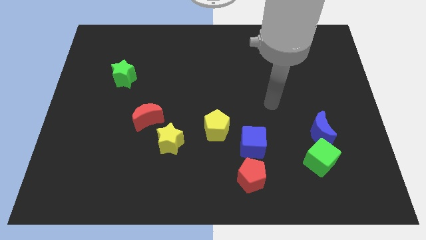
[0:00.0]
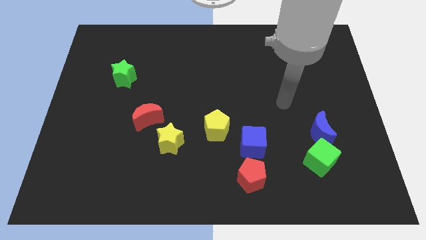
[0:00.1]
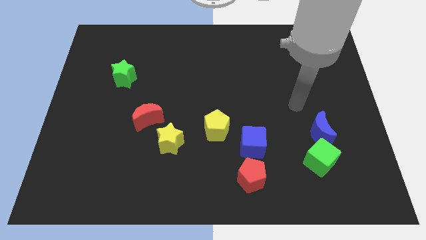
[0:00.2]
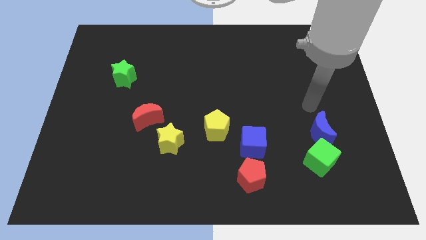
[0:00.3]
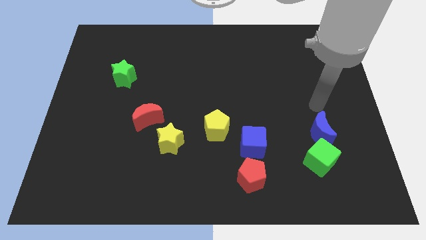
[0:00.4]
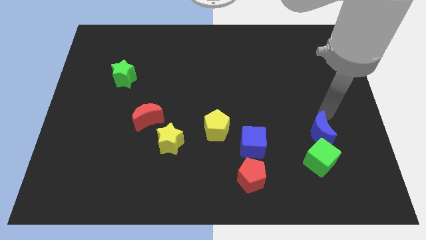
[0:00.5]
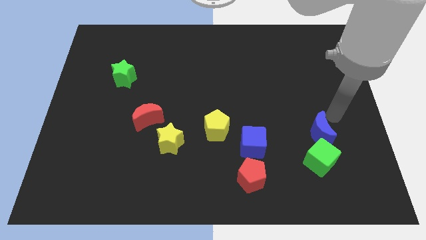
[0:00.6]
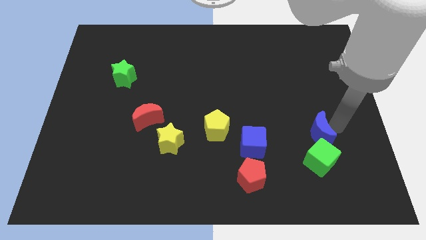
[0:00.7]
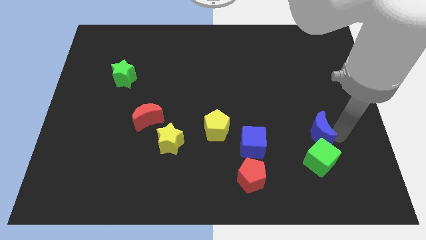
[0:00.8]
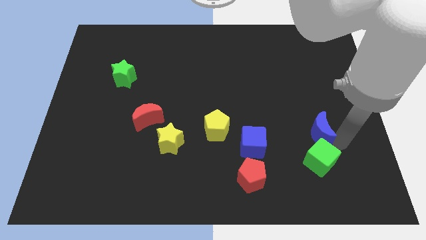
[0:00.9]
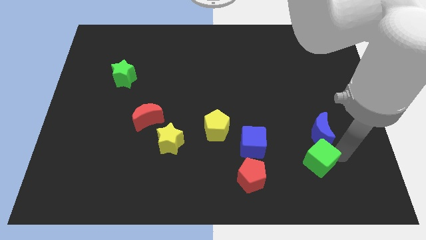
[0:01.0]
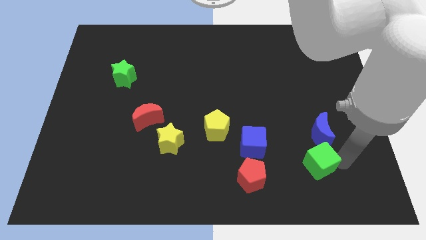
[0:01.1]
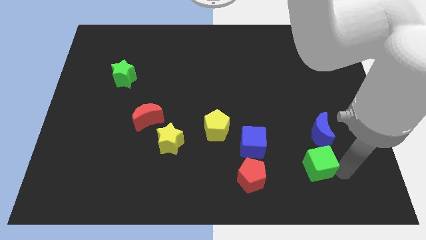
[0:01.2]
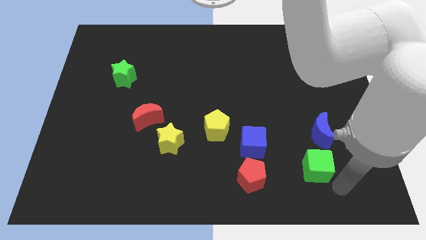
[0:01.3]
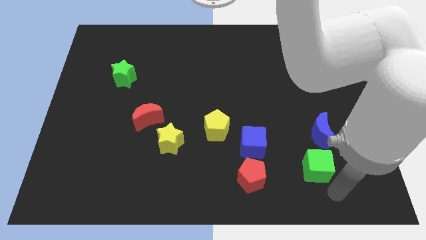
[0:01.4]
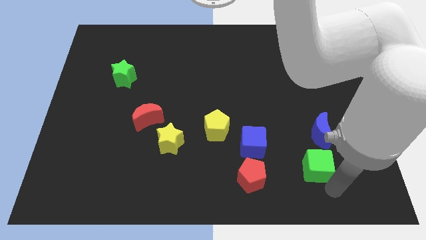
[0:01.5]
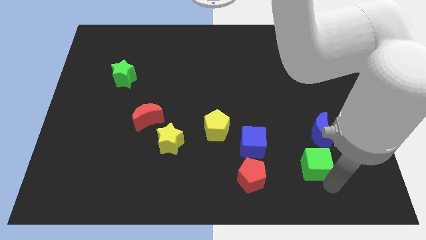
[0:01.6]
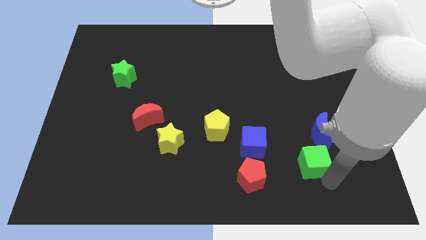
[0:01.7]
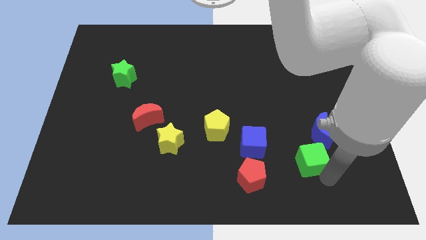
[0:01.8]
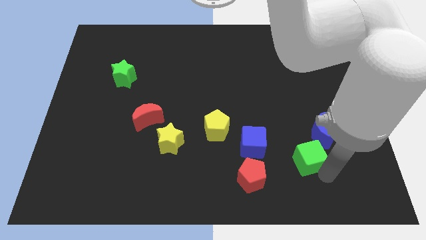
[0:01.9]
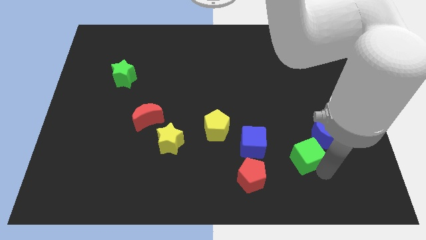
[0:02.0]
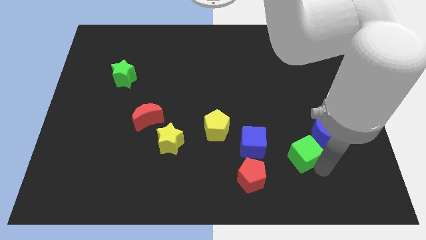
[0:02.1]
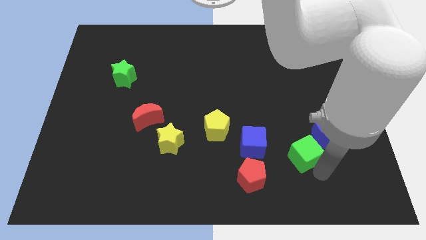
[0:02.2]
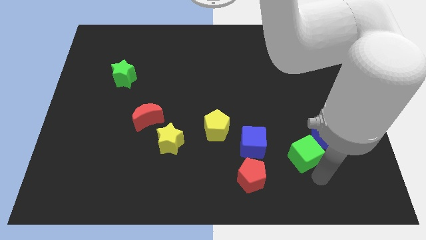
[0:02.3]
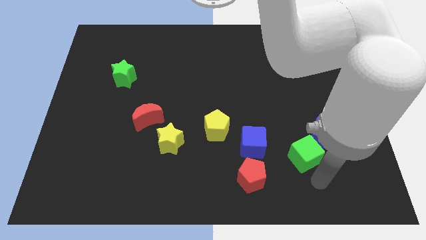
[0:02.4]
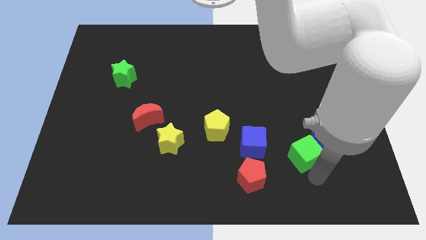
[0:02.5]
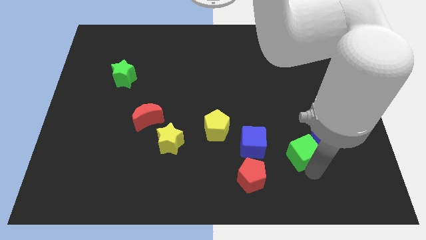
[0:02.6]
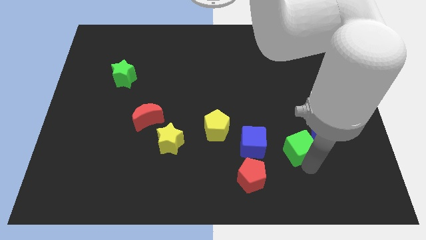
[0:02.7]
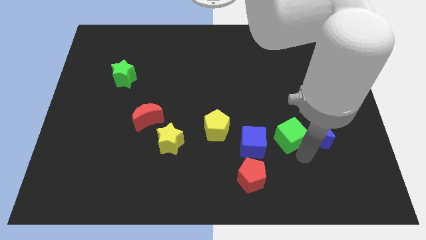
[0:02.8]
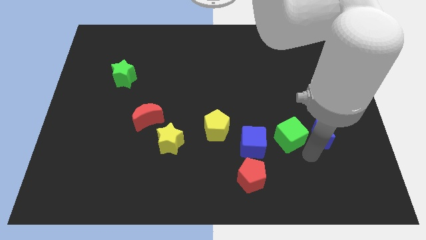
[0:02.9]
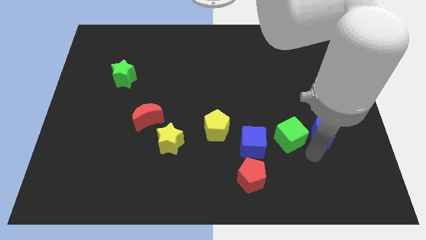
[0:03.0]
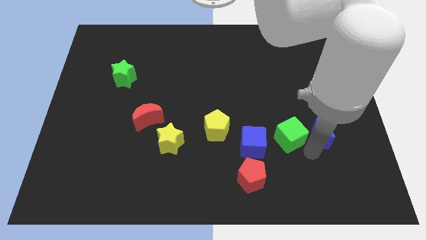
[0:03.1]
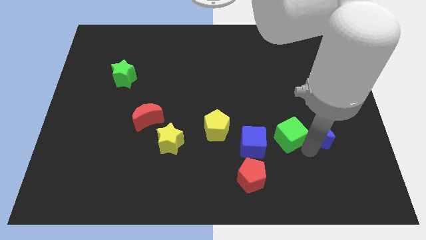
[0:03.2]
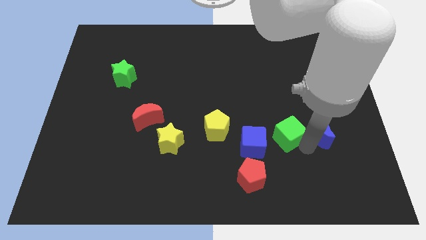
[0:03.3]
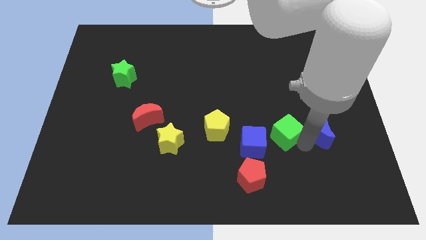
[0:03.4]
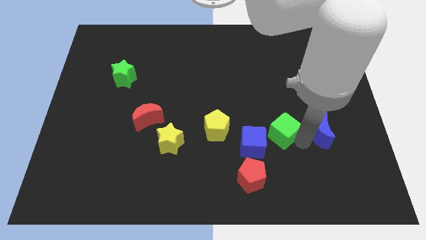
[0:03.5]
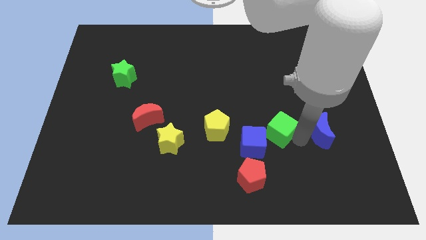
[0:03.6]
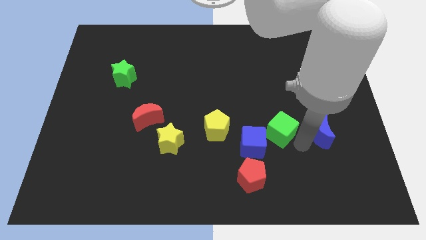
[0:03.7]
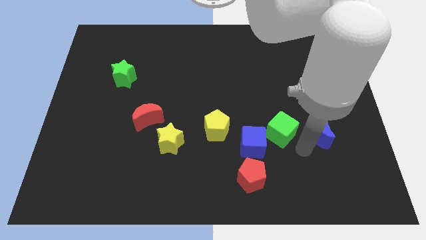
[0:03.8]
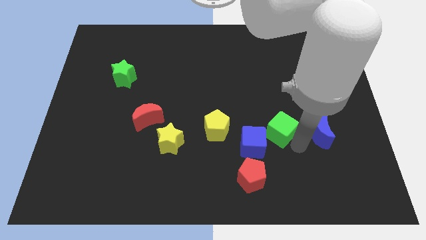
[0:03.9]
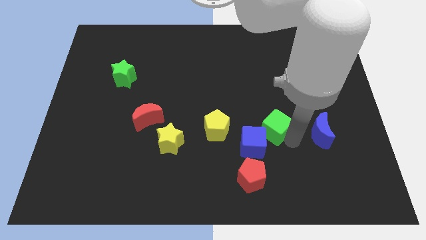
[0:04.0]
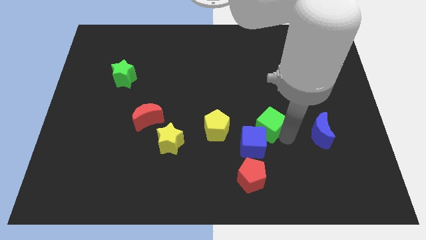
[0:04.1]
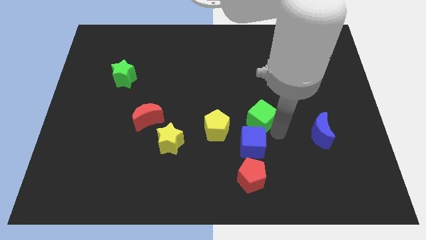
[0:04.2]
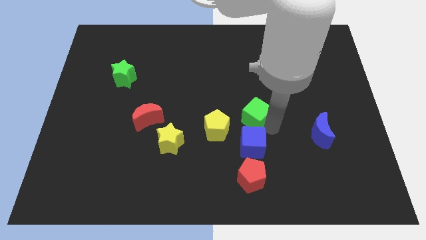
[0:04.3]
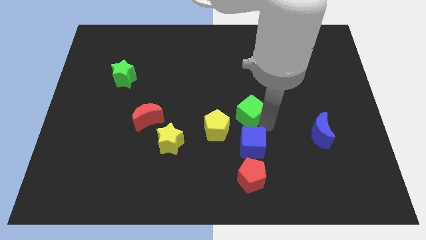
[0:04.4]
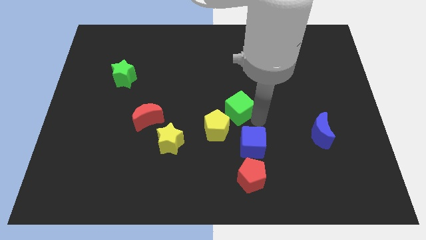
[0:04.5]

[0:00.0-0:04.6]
push the green cube upwards and to the left

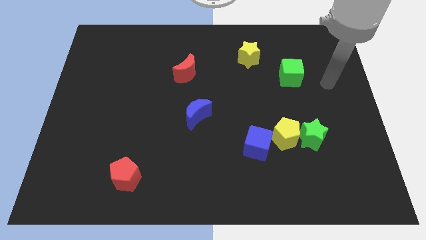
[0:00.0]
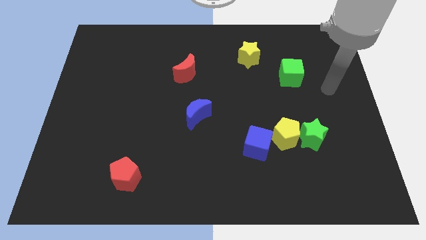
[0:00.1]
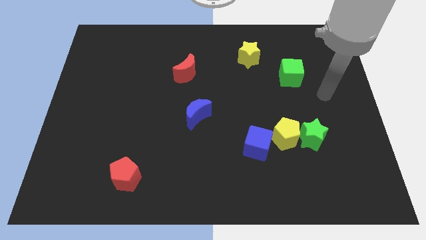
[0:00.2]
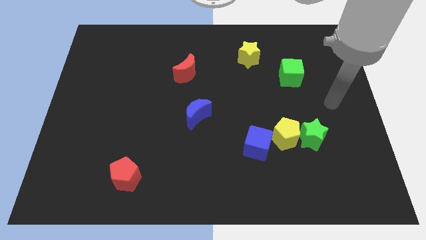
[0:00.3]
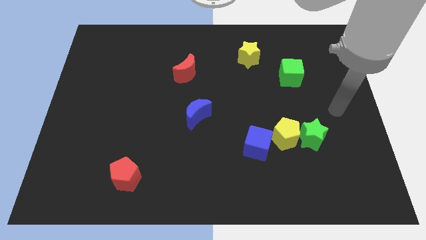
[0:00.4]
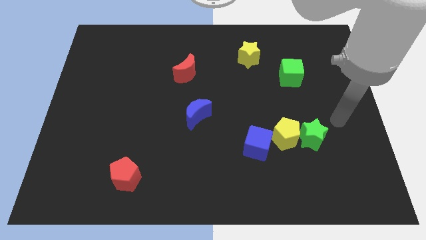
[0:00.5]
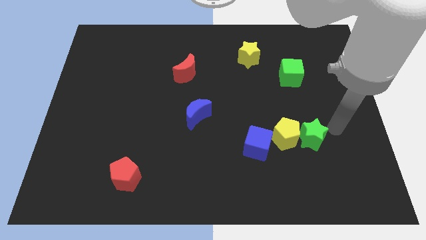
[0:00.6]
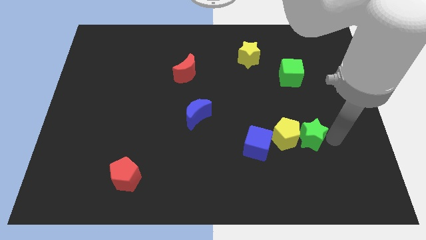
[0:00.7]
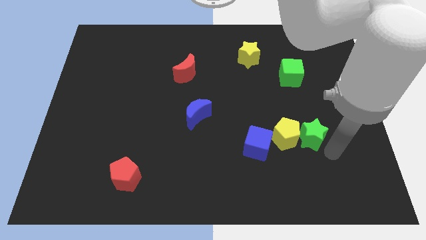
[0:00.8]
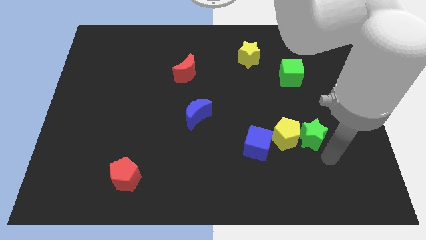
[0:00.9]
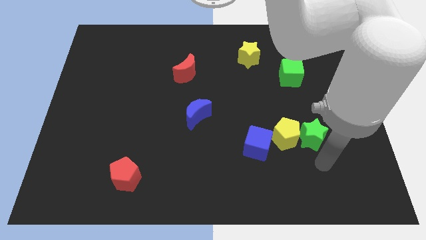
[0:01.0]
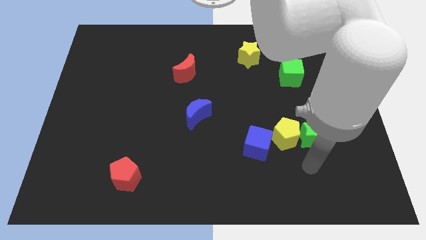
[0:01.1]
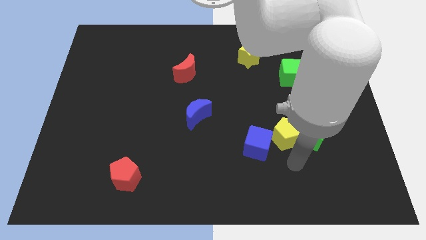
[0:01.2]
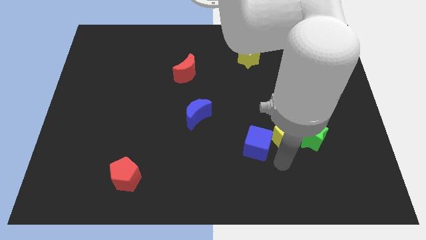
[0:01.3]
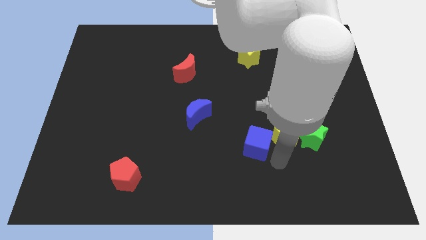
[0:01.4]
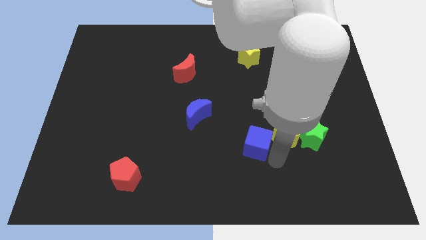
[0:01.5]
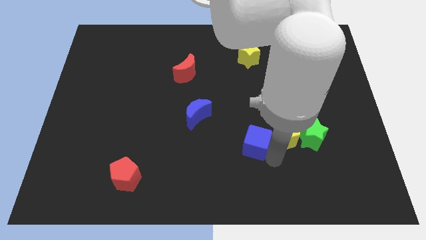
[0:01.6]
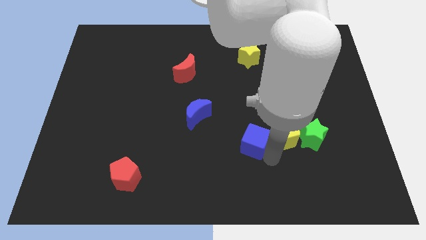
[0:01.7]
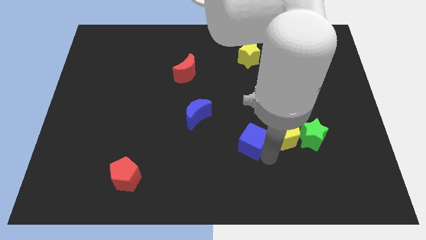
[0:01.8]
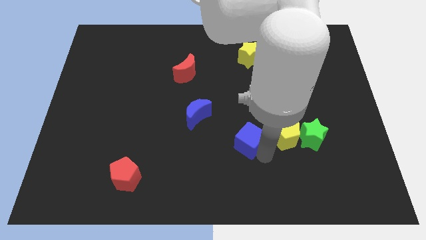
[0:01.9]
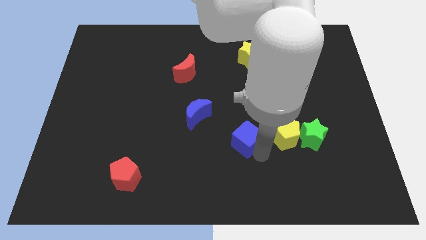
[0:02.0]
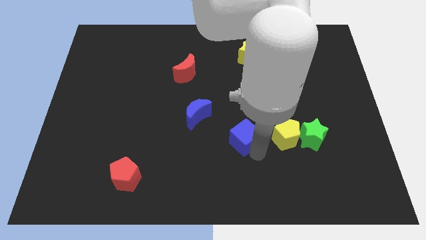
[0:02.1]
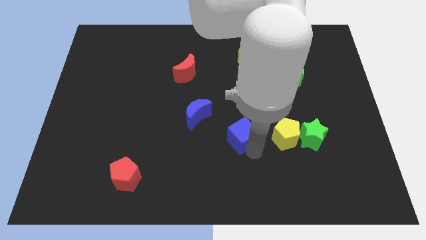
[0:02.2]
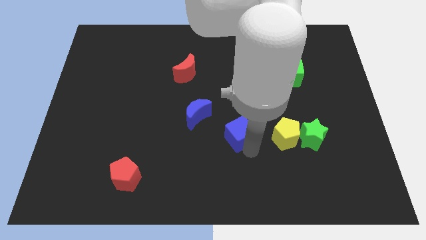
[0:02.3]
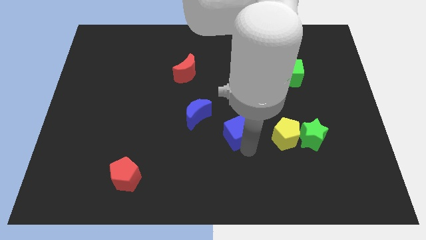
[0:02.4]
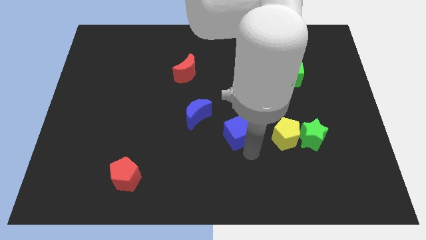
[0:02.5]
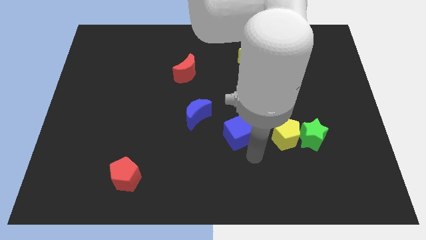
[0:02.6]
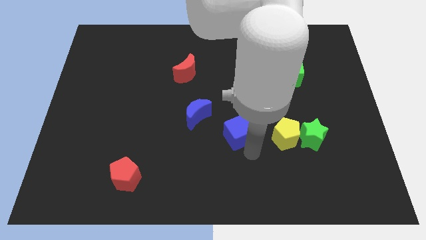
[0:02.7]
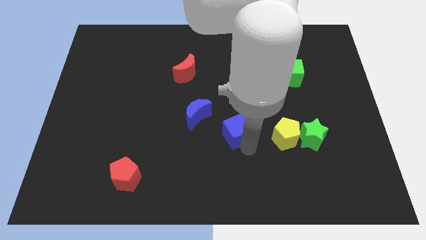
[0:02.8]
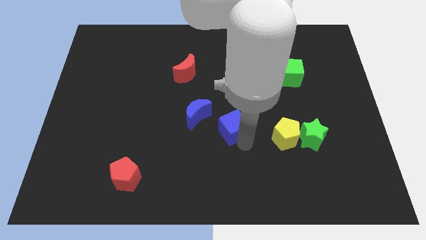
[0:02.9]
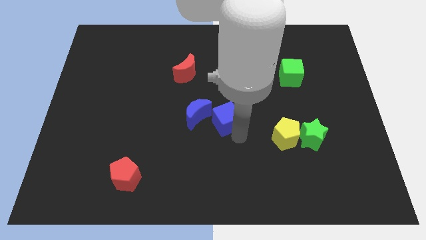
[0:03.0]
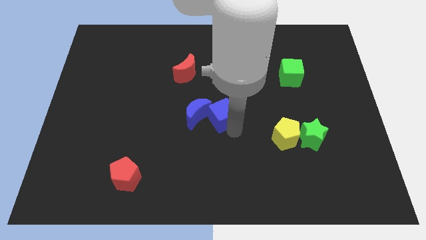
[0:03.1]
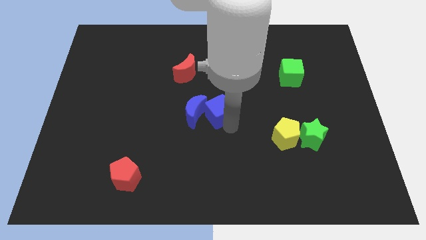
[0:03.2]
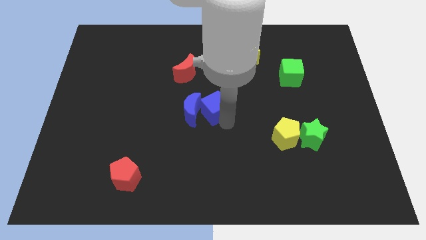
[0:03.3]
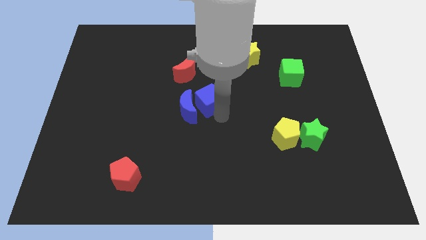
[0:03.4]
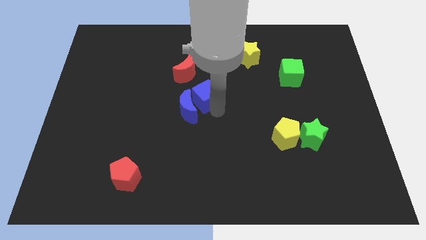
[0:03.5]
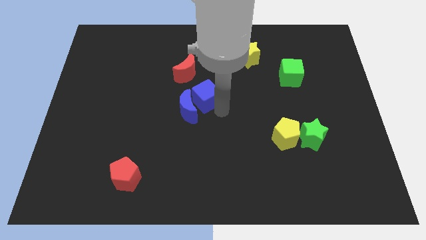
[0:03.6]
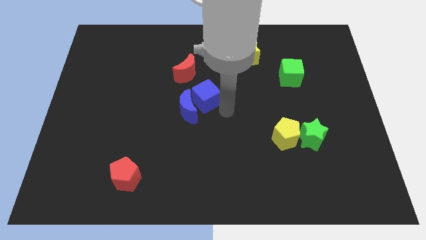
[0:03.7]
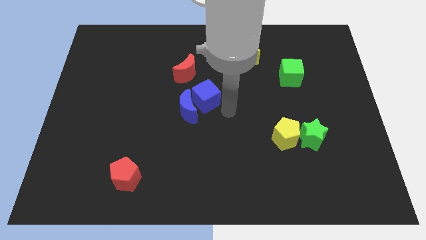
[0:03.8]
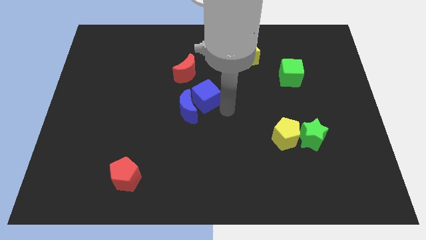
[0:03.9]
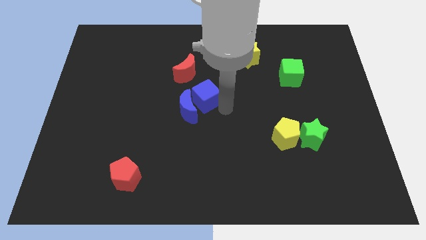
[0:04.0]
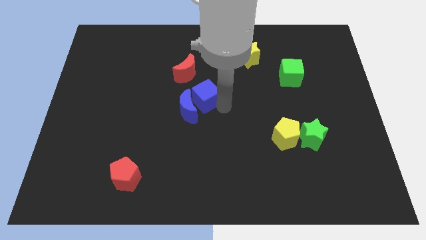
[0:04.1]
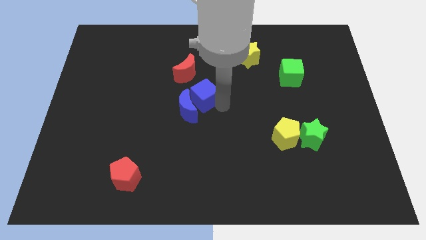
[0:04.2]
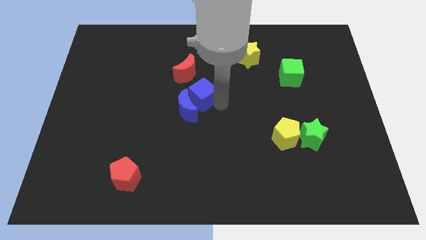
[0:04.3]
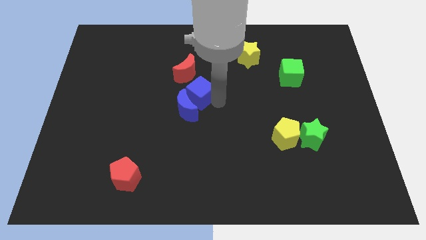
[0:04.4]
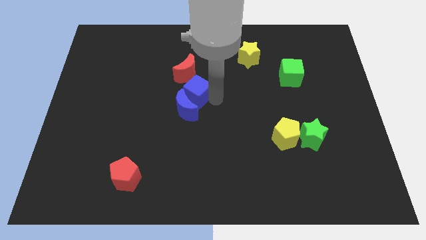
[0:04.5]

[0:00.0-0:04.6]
slide the blue cube up and then left
